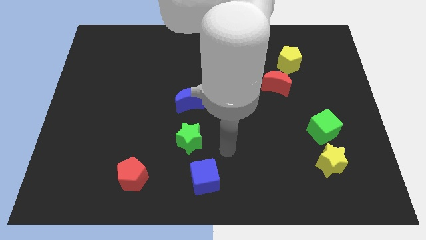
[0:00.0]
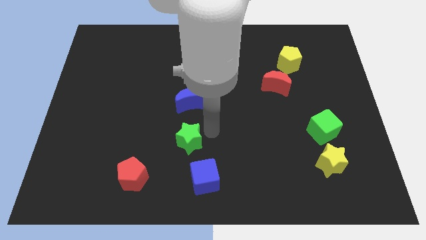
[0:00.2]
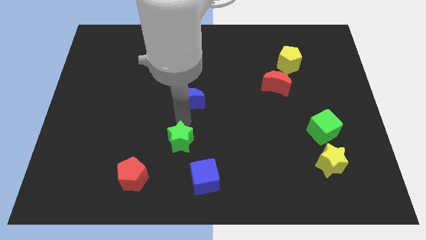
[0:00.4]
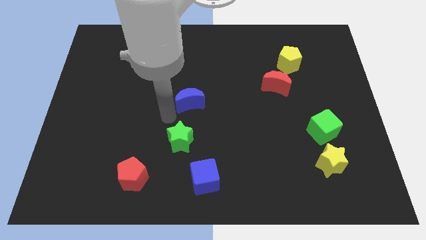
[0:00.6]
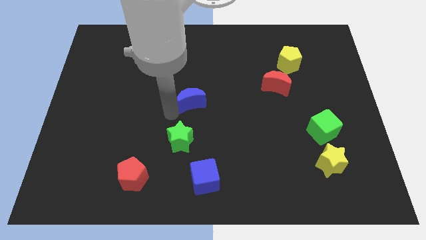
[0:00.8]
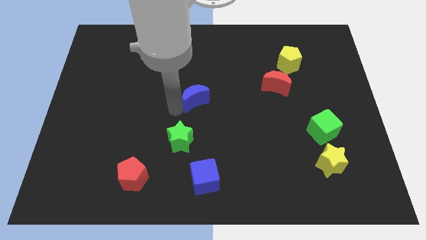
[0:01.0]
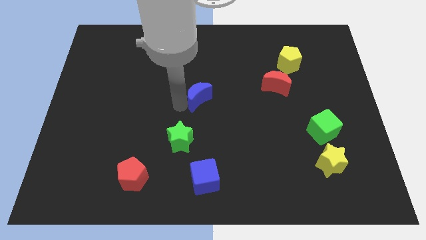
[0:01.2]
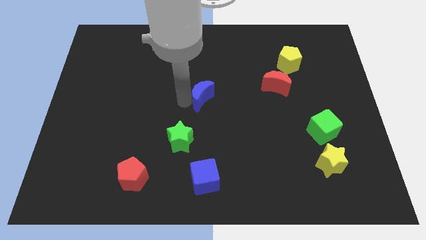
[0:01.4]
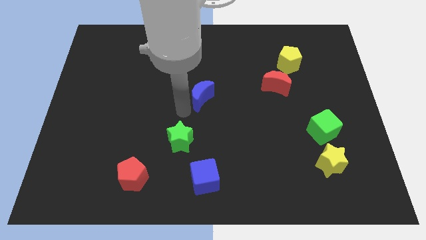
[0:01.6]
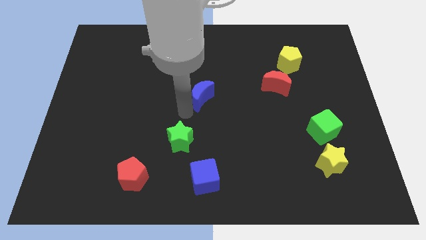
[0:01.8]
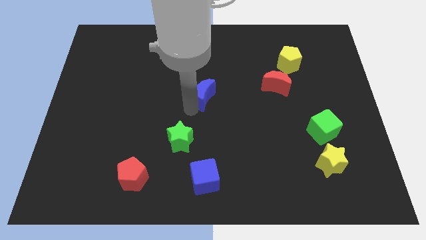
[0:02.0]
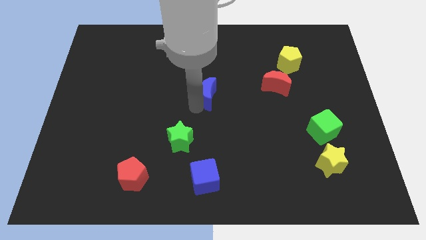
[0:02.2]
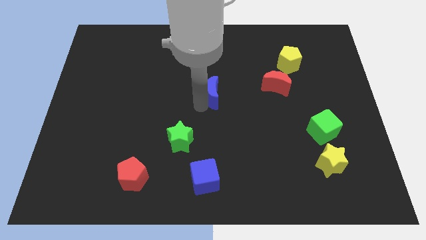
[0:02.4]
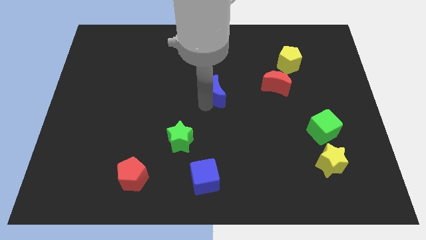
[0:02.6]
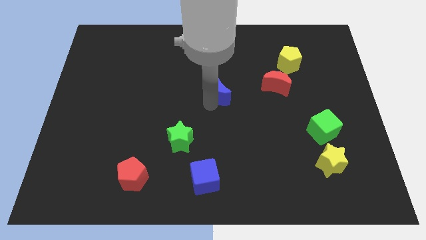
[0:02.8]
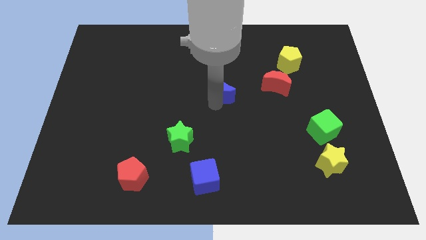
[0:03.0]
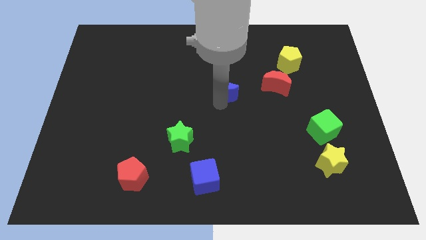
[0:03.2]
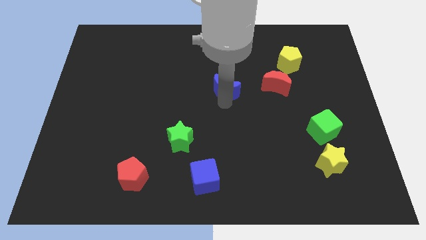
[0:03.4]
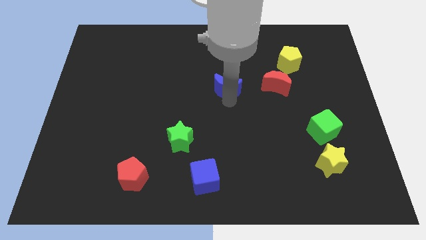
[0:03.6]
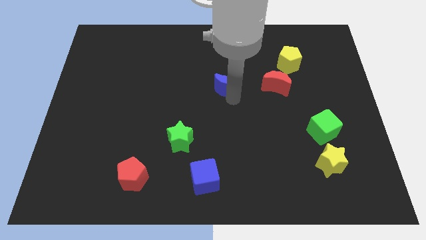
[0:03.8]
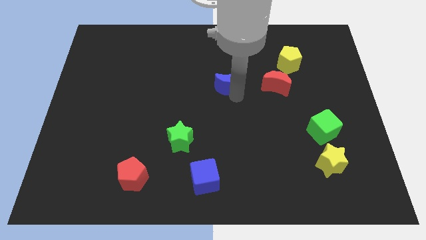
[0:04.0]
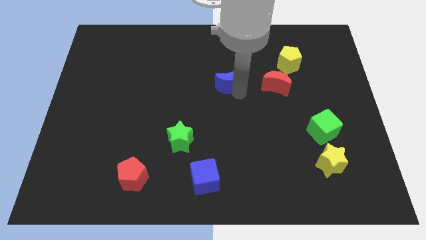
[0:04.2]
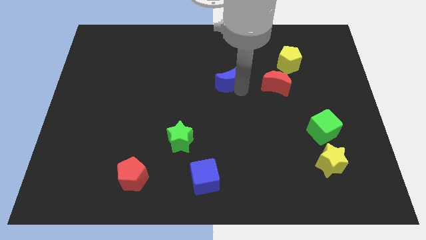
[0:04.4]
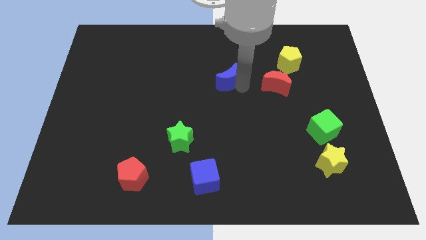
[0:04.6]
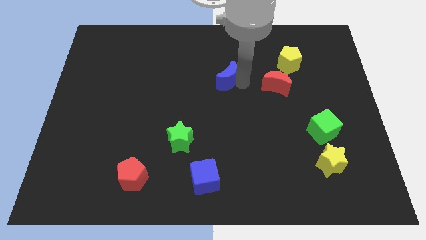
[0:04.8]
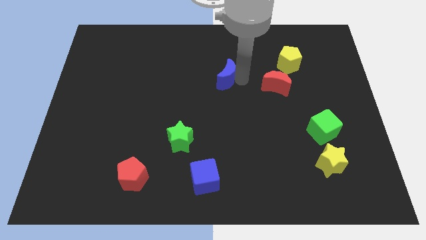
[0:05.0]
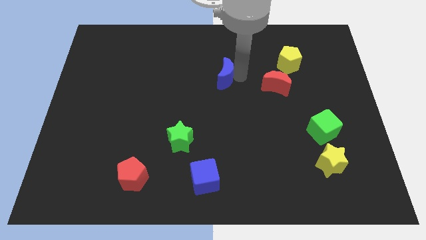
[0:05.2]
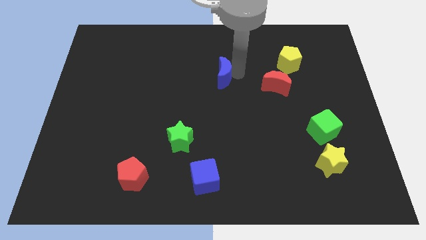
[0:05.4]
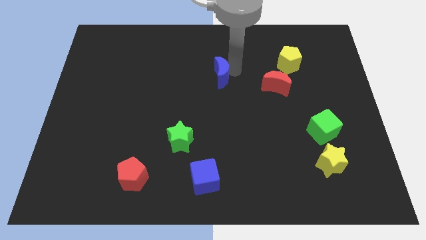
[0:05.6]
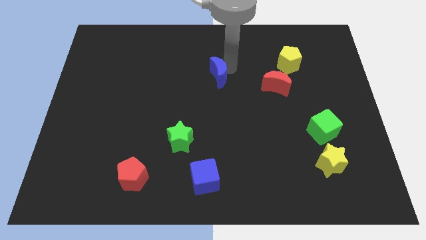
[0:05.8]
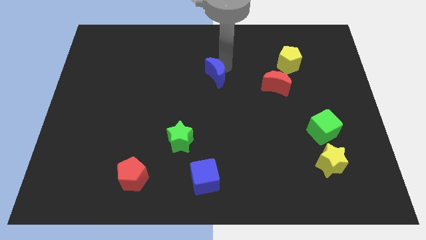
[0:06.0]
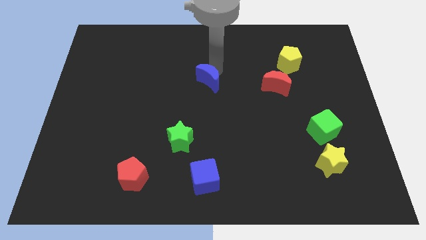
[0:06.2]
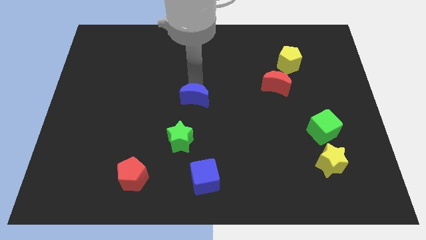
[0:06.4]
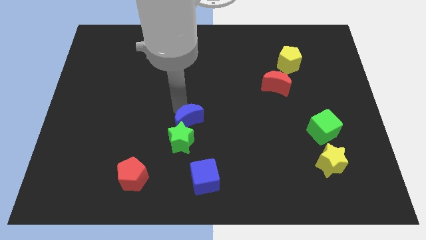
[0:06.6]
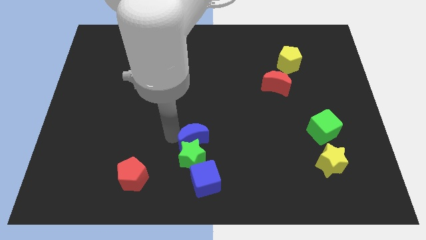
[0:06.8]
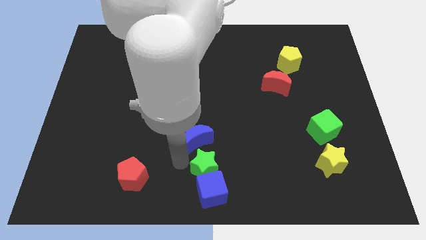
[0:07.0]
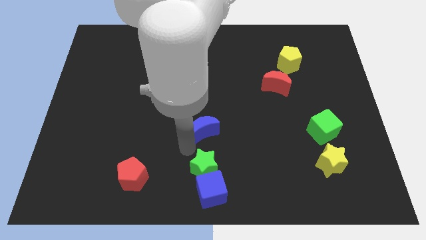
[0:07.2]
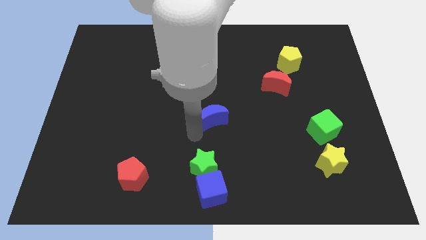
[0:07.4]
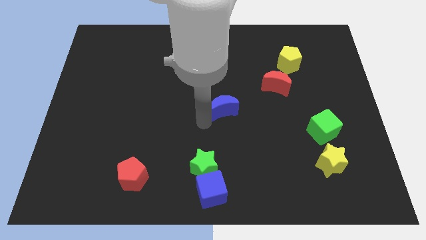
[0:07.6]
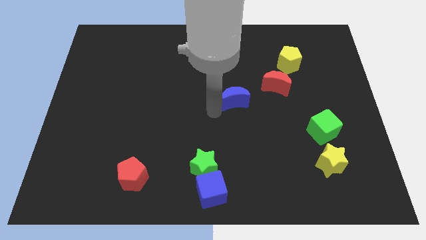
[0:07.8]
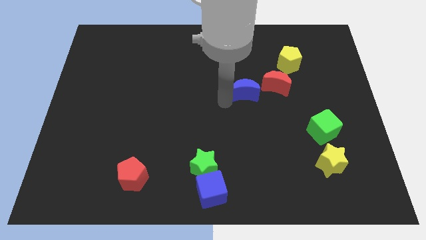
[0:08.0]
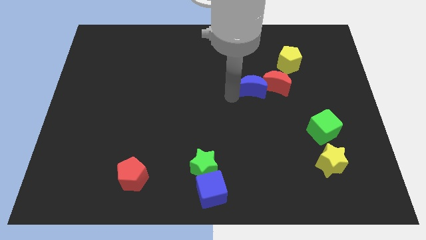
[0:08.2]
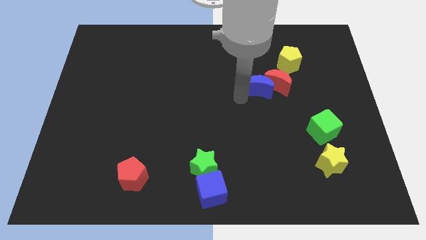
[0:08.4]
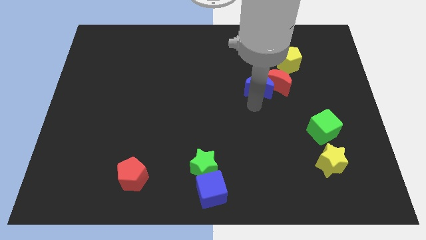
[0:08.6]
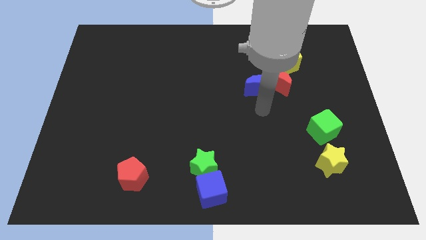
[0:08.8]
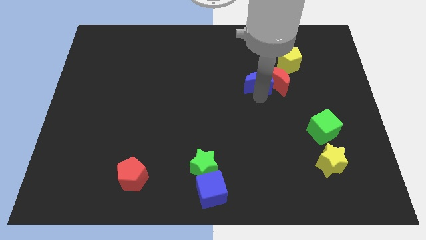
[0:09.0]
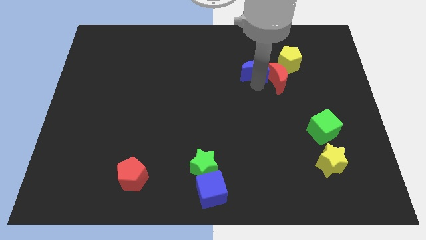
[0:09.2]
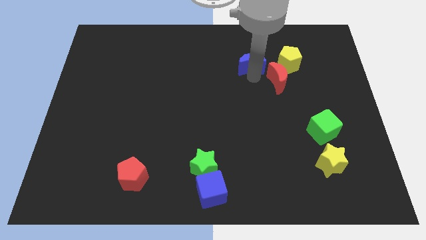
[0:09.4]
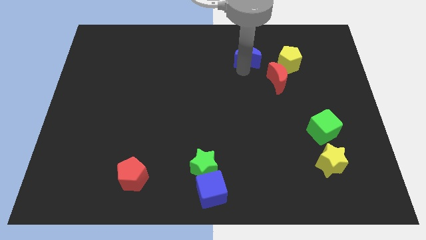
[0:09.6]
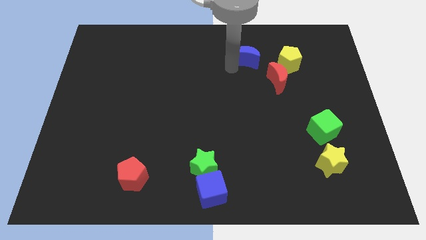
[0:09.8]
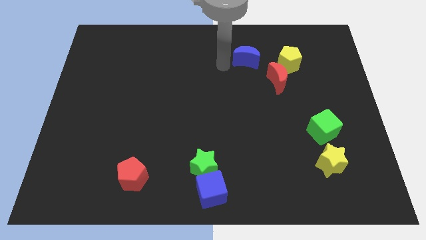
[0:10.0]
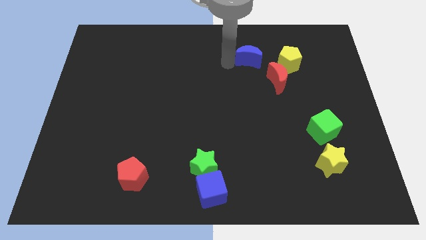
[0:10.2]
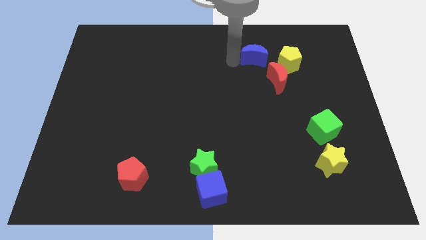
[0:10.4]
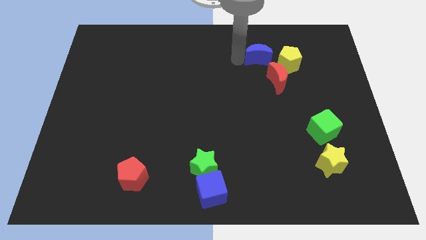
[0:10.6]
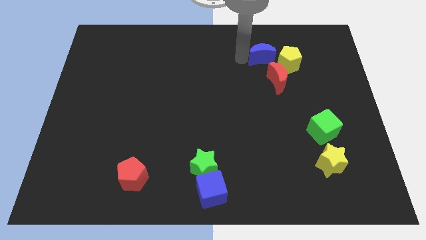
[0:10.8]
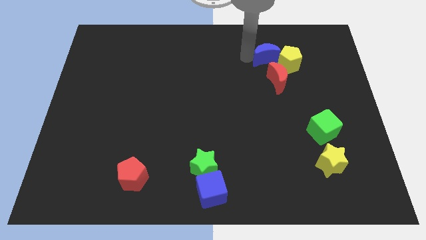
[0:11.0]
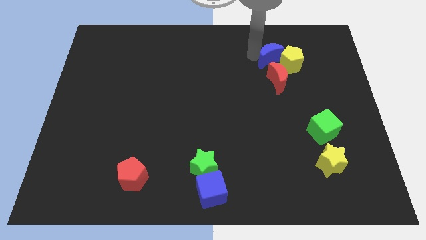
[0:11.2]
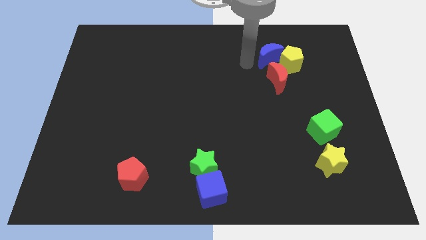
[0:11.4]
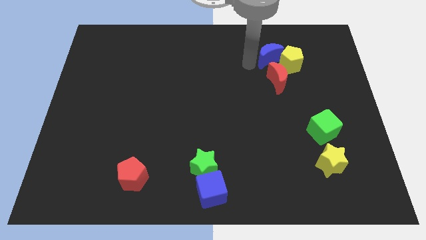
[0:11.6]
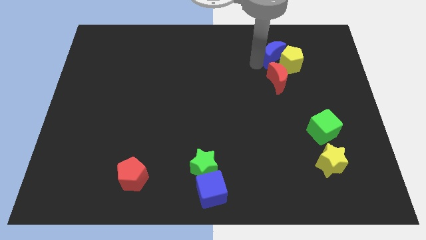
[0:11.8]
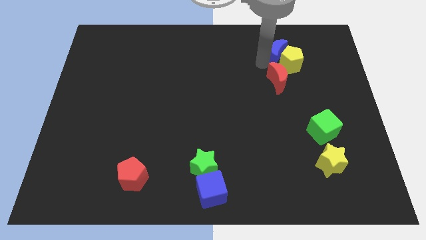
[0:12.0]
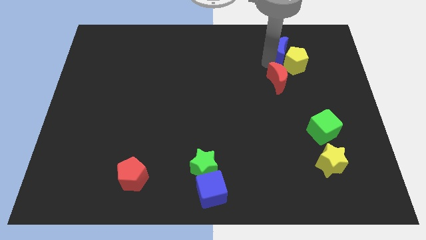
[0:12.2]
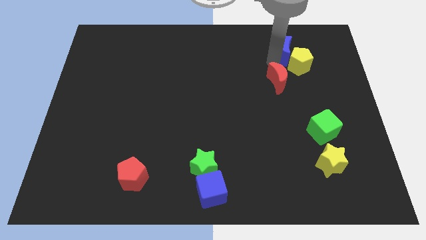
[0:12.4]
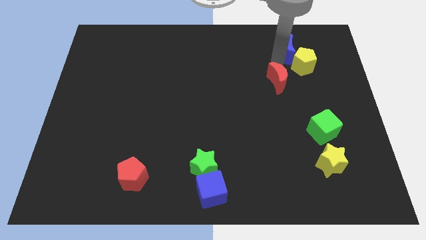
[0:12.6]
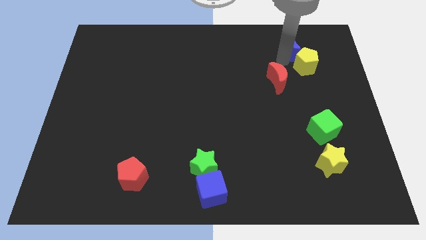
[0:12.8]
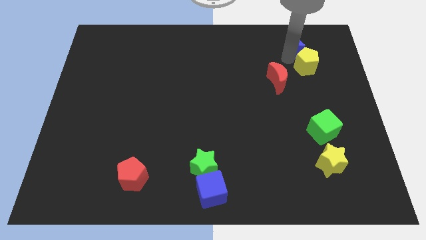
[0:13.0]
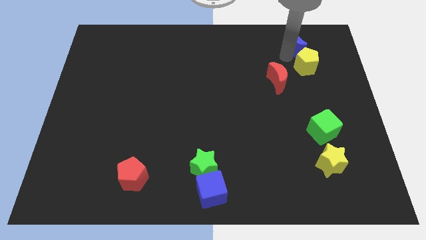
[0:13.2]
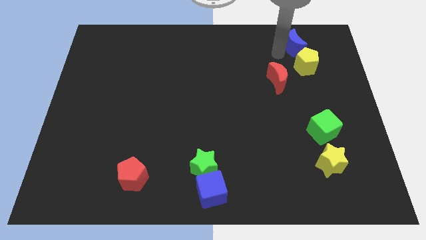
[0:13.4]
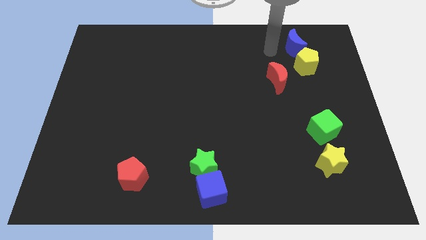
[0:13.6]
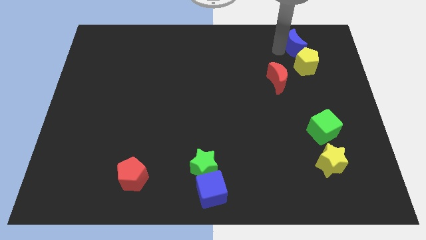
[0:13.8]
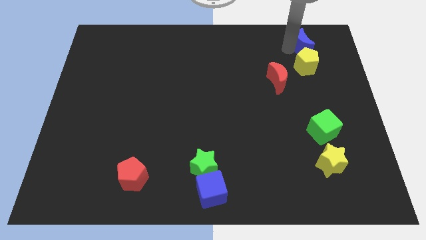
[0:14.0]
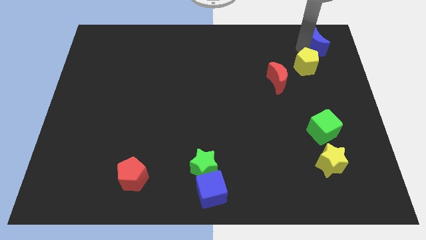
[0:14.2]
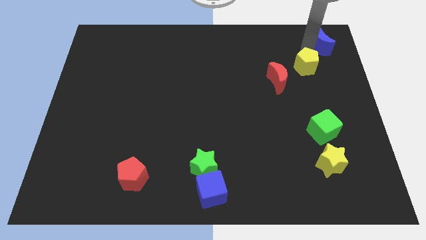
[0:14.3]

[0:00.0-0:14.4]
push the blue moon to the top right of the board
